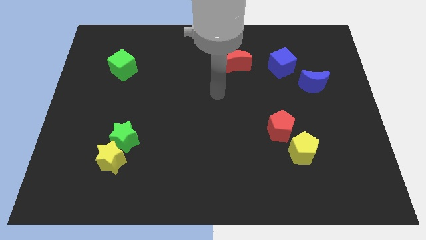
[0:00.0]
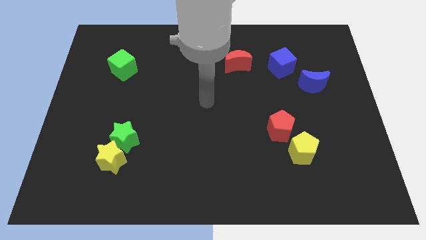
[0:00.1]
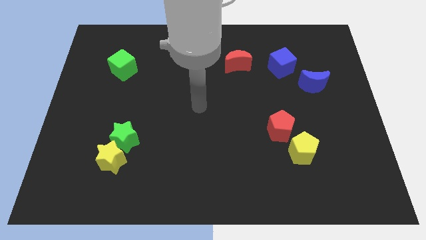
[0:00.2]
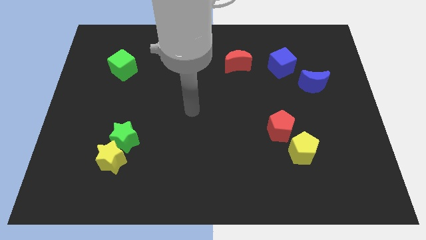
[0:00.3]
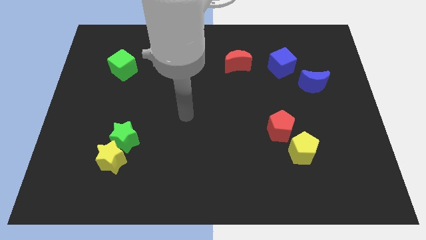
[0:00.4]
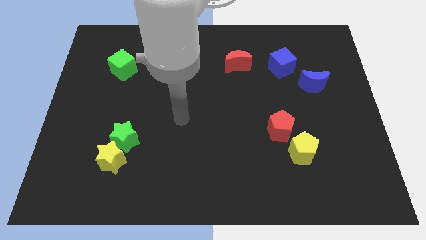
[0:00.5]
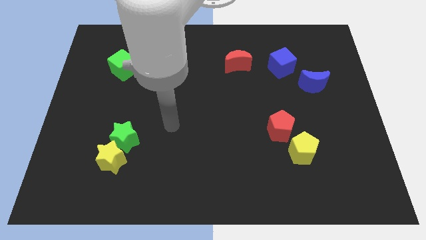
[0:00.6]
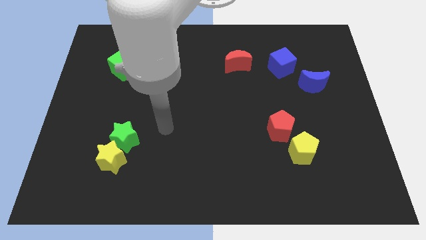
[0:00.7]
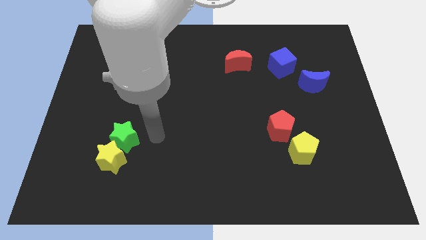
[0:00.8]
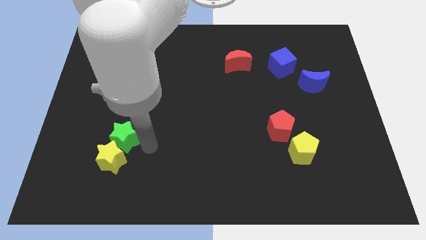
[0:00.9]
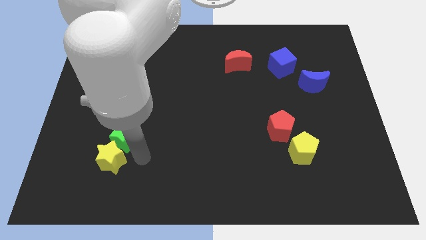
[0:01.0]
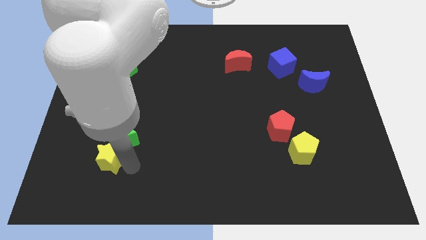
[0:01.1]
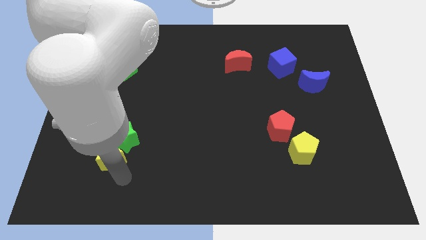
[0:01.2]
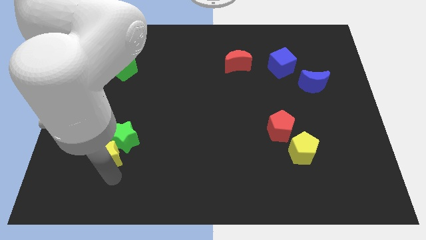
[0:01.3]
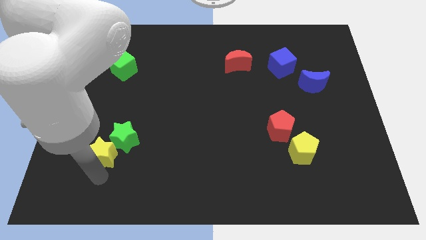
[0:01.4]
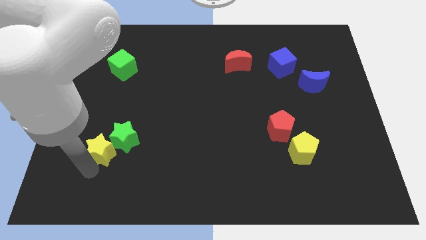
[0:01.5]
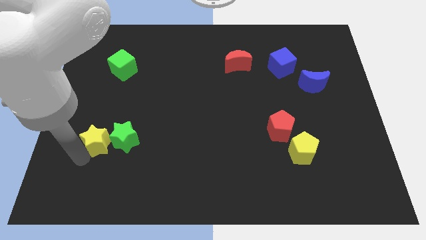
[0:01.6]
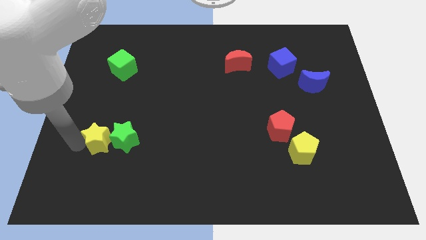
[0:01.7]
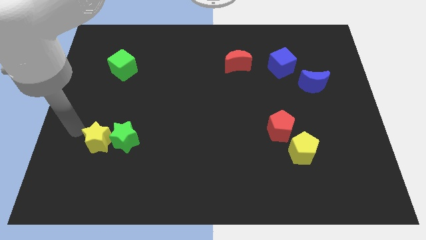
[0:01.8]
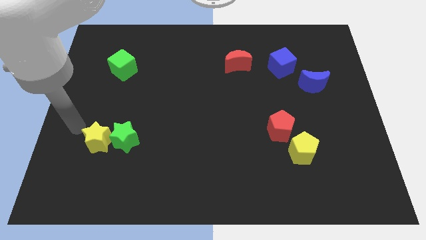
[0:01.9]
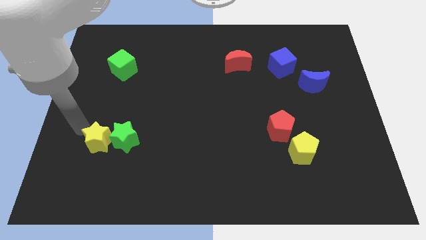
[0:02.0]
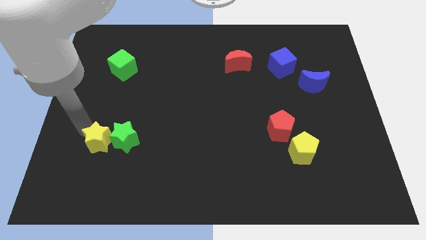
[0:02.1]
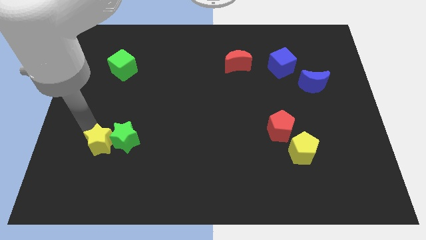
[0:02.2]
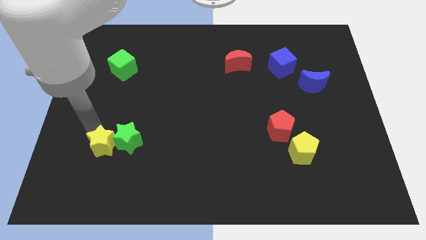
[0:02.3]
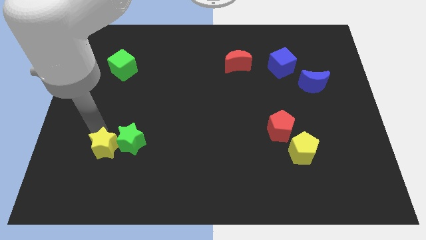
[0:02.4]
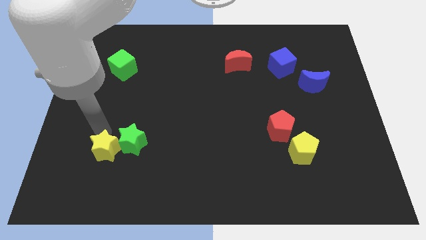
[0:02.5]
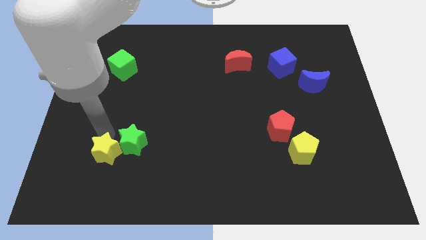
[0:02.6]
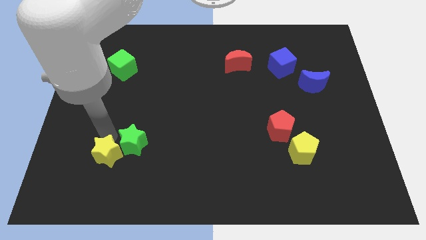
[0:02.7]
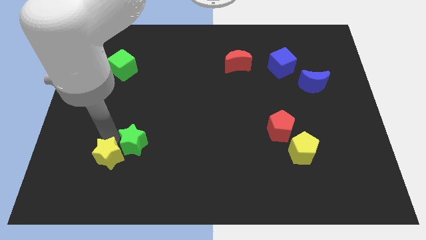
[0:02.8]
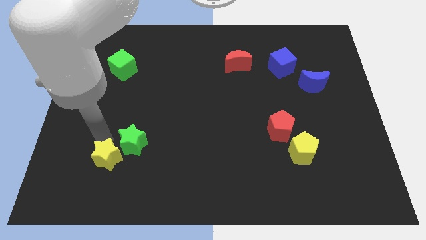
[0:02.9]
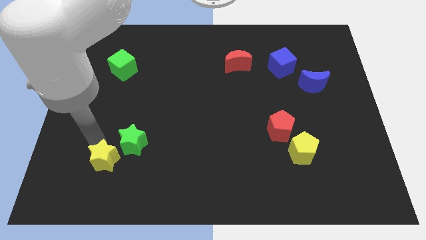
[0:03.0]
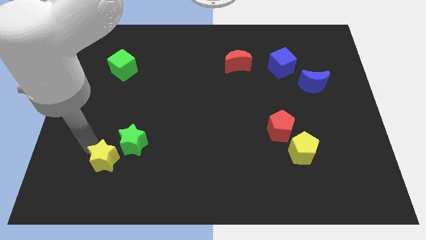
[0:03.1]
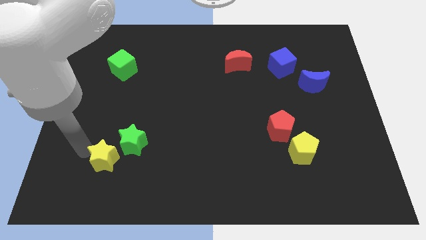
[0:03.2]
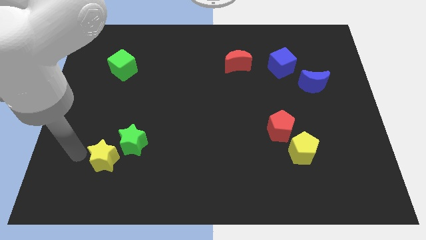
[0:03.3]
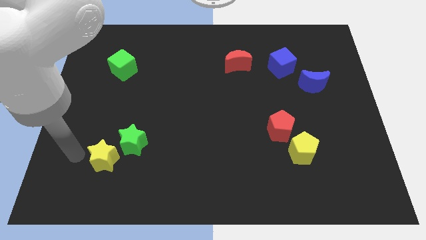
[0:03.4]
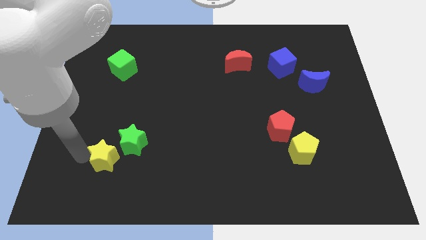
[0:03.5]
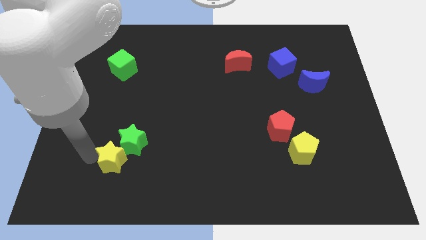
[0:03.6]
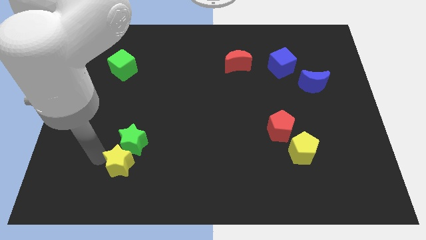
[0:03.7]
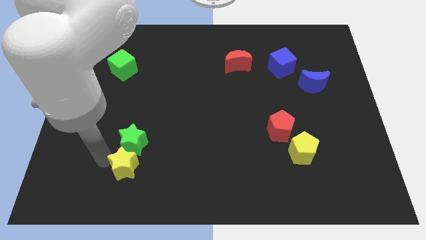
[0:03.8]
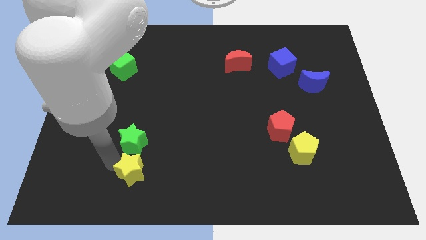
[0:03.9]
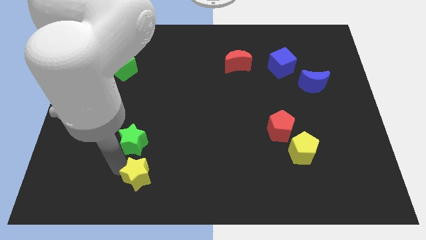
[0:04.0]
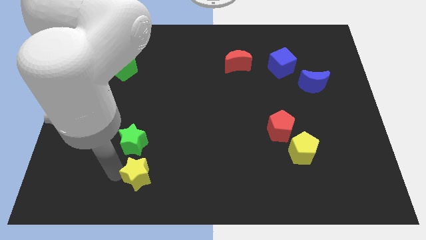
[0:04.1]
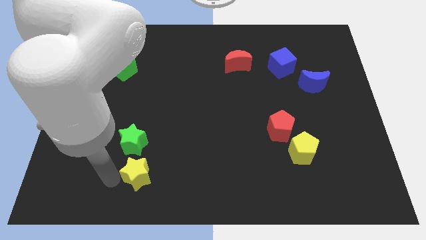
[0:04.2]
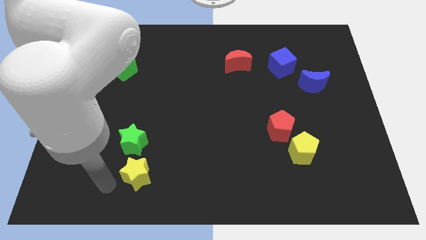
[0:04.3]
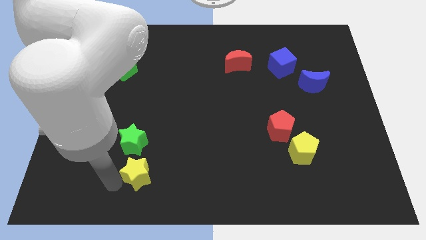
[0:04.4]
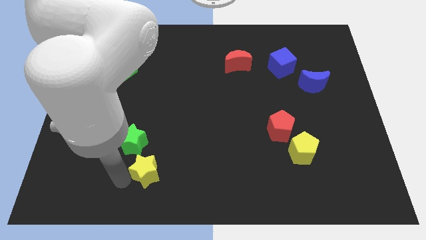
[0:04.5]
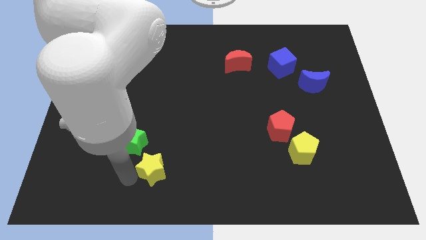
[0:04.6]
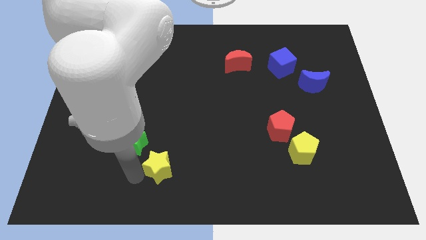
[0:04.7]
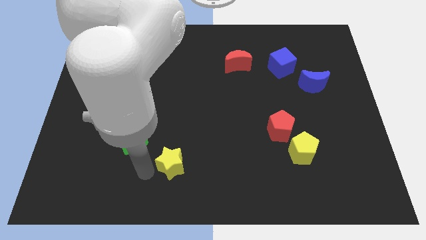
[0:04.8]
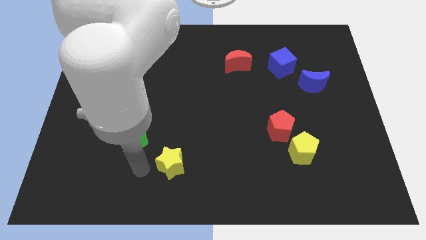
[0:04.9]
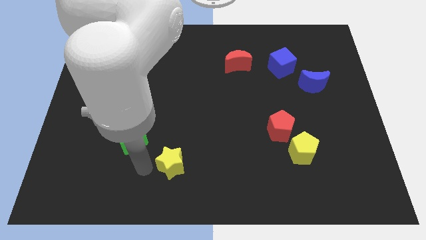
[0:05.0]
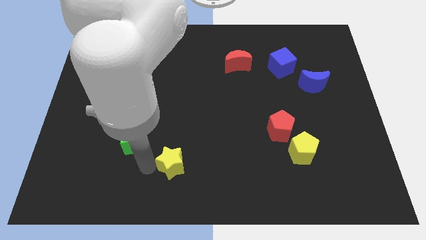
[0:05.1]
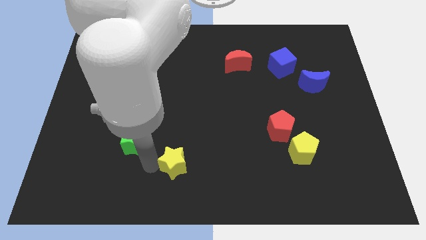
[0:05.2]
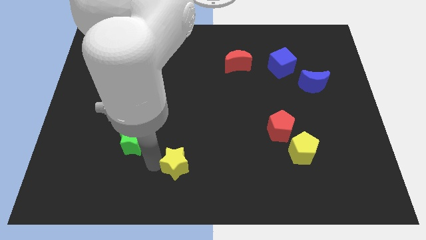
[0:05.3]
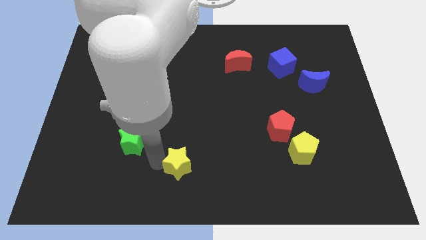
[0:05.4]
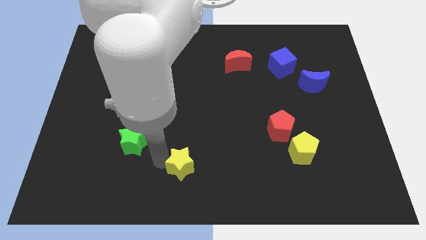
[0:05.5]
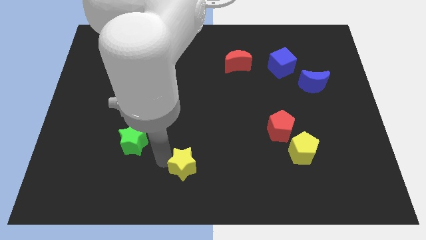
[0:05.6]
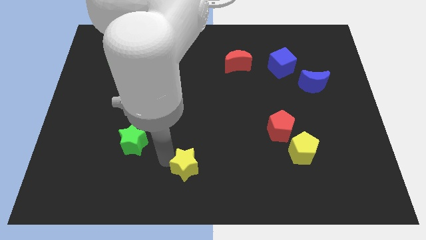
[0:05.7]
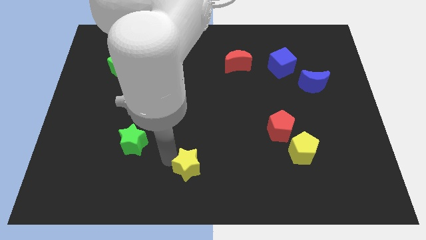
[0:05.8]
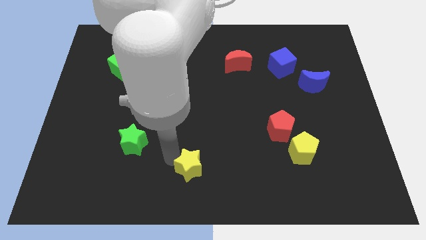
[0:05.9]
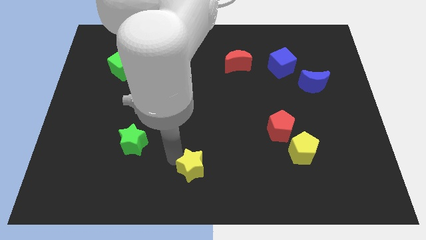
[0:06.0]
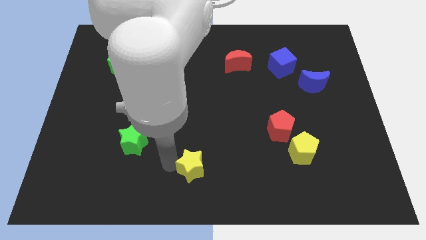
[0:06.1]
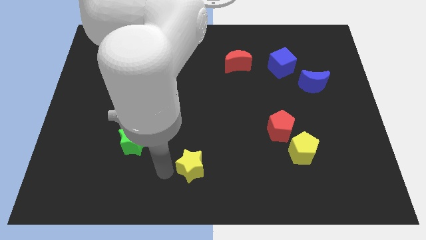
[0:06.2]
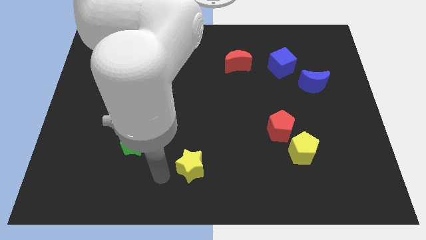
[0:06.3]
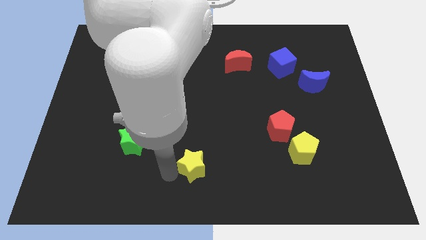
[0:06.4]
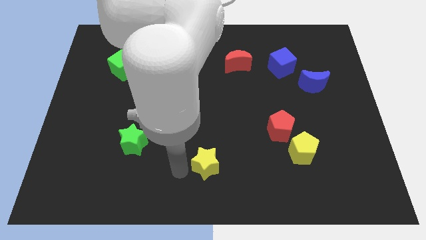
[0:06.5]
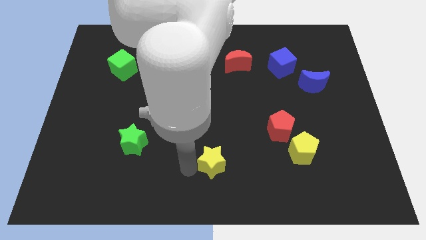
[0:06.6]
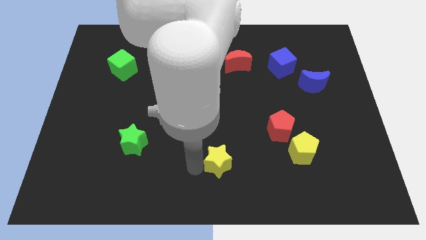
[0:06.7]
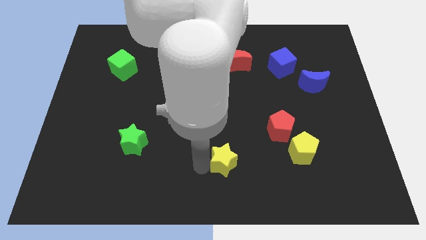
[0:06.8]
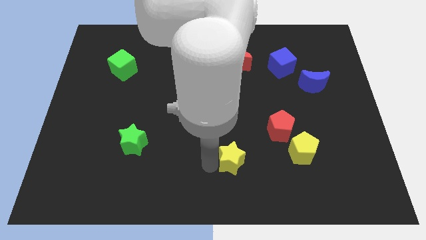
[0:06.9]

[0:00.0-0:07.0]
move the yellow star to the left of the yellow pentagon
